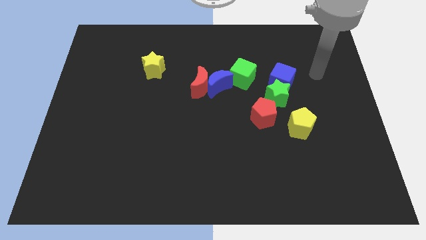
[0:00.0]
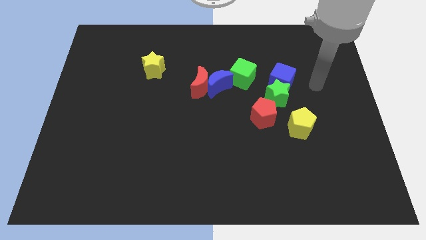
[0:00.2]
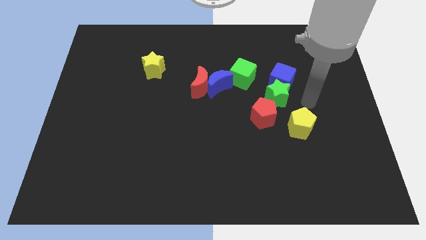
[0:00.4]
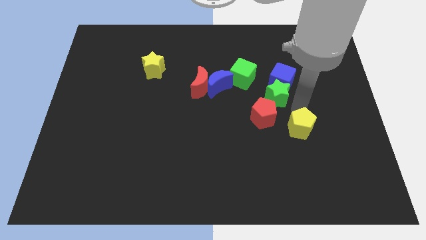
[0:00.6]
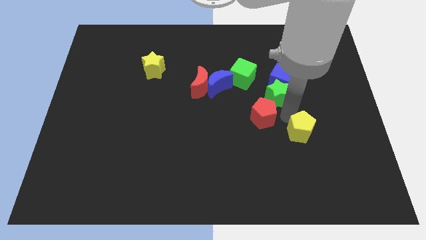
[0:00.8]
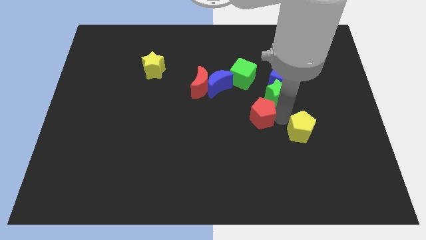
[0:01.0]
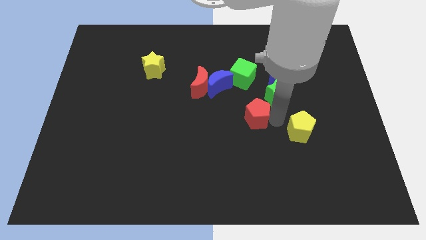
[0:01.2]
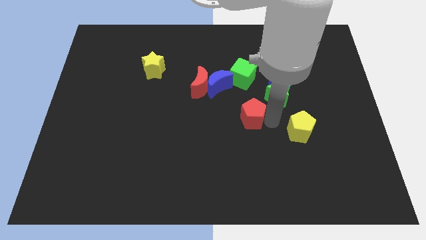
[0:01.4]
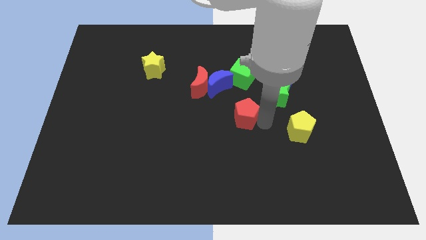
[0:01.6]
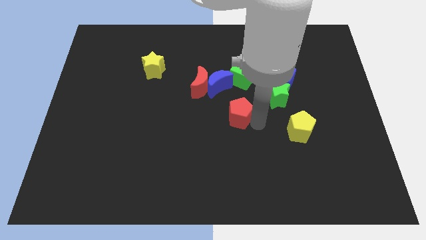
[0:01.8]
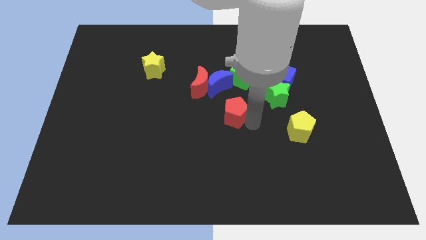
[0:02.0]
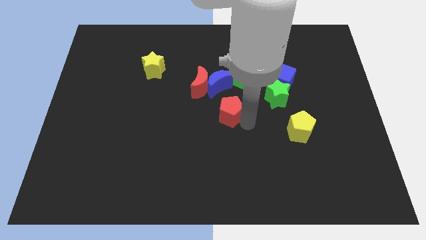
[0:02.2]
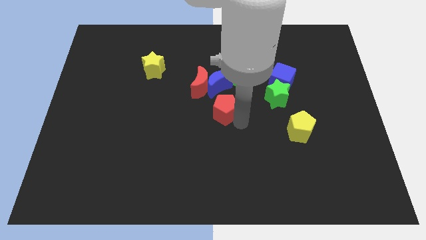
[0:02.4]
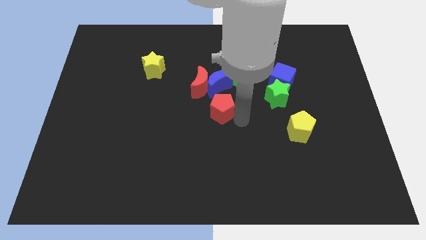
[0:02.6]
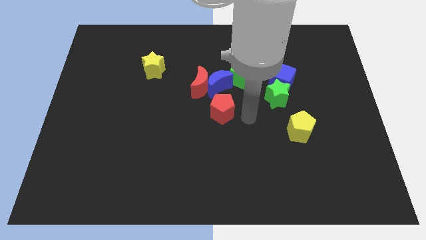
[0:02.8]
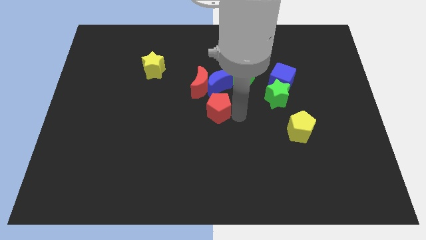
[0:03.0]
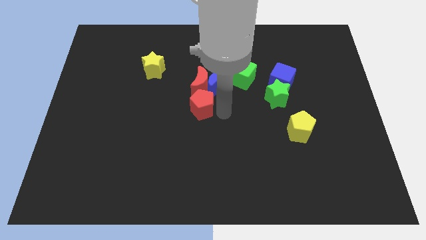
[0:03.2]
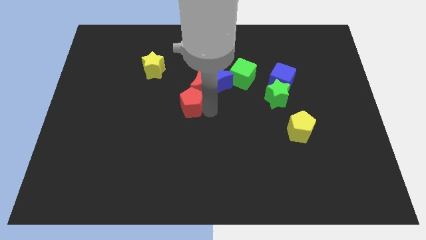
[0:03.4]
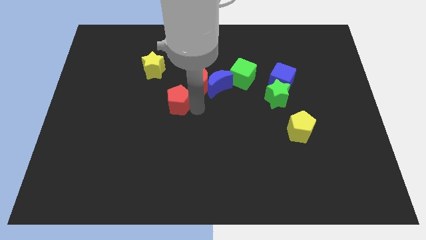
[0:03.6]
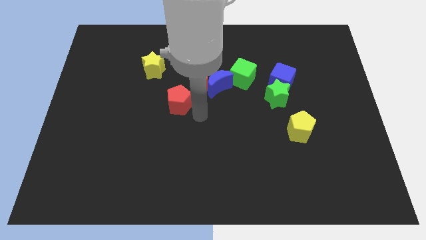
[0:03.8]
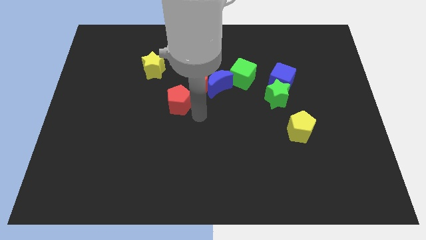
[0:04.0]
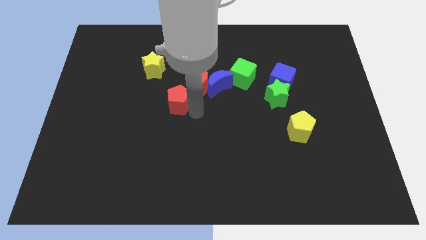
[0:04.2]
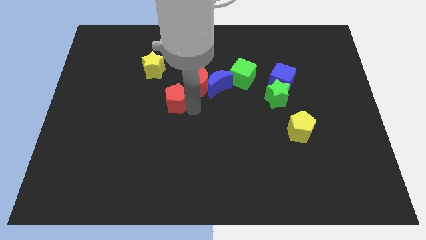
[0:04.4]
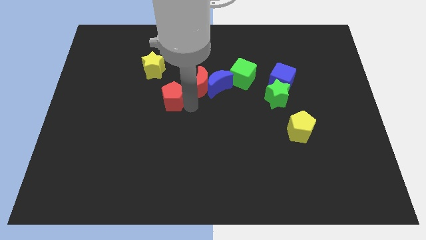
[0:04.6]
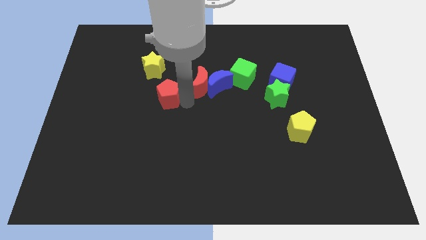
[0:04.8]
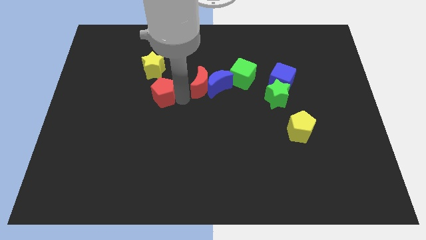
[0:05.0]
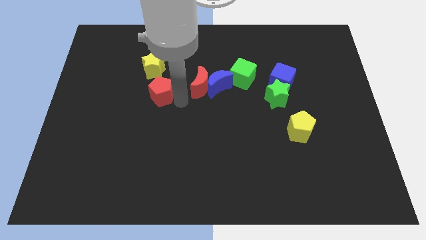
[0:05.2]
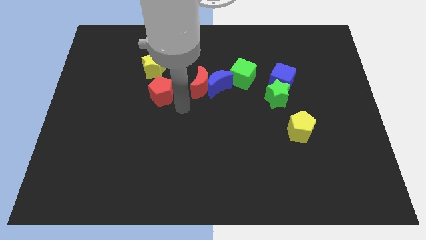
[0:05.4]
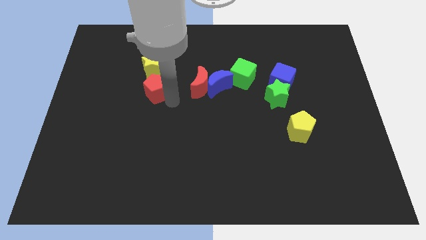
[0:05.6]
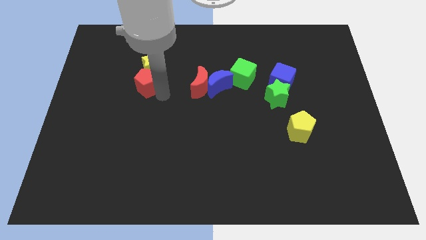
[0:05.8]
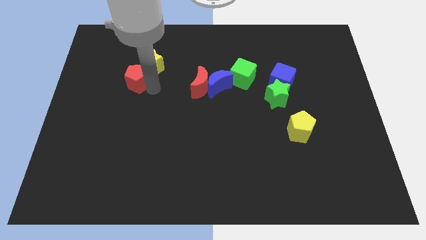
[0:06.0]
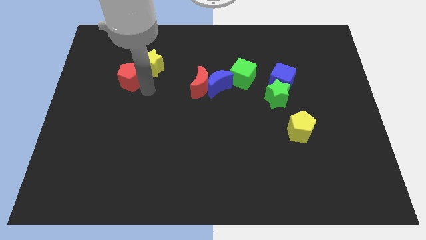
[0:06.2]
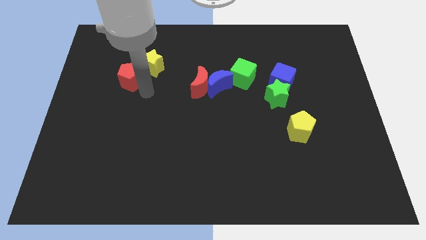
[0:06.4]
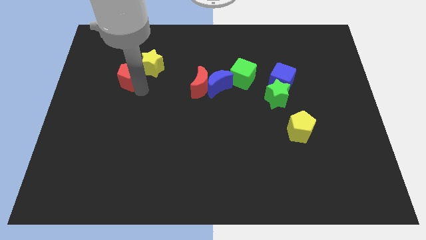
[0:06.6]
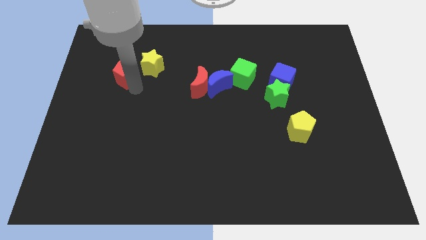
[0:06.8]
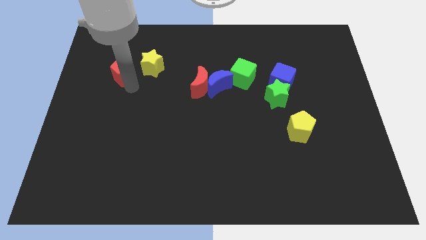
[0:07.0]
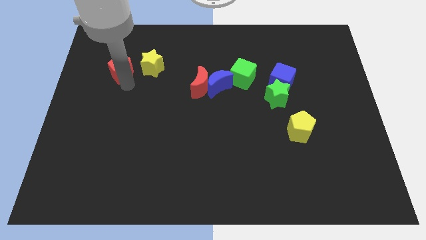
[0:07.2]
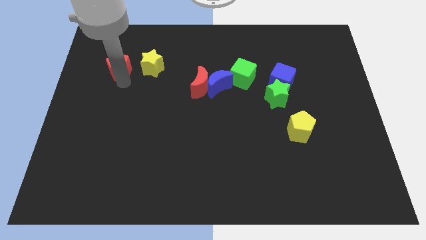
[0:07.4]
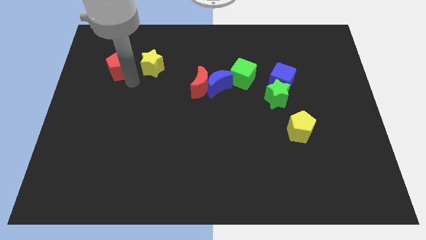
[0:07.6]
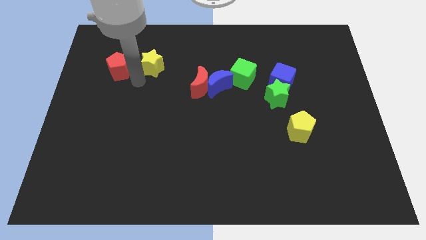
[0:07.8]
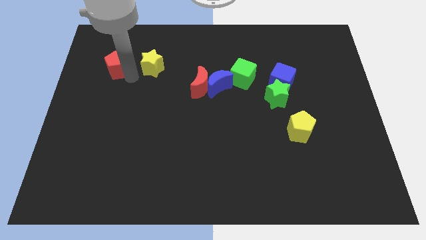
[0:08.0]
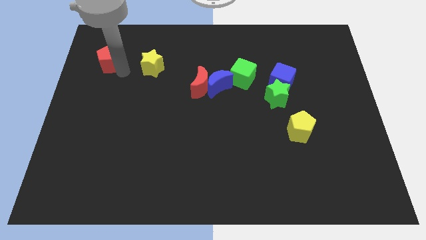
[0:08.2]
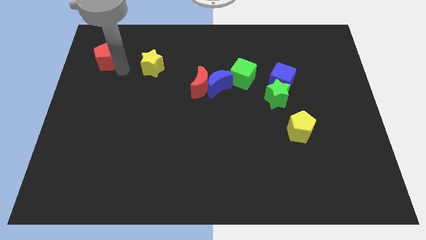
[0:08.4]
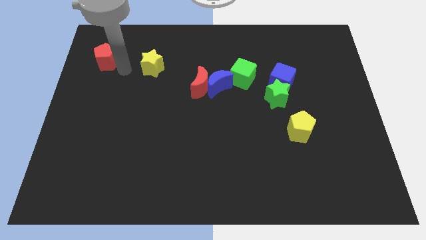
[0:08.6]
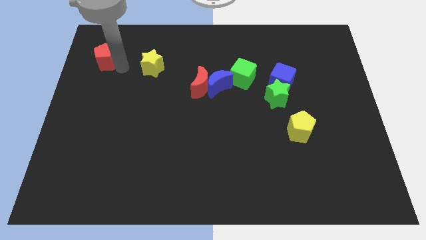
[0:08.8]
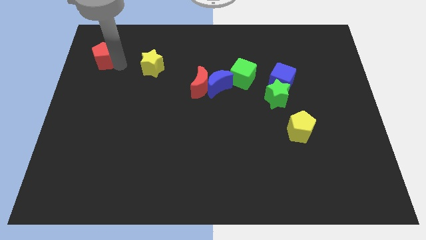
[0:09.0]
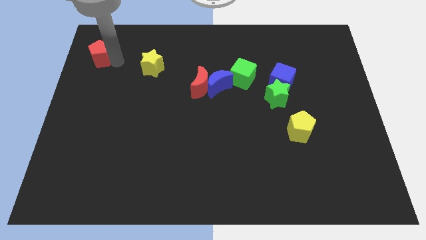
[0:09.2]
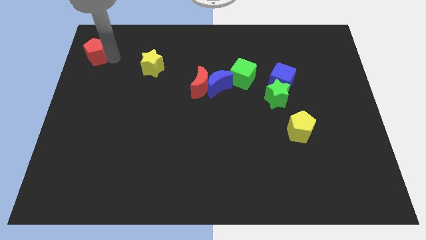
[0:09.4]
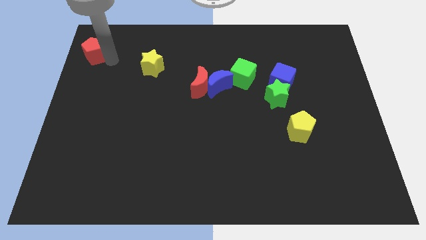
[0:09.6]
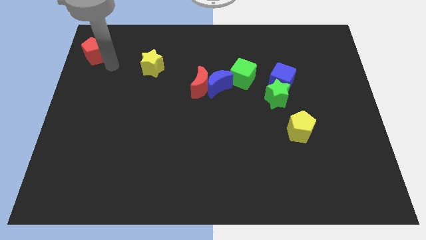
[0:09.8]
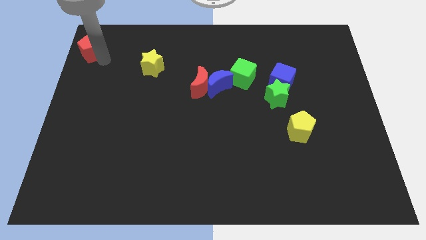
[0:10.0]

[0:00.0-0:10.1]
put the red pentagon to the top left

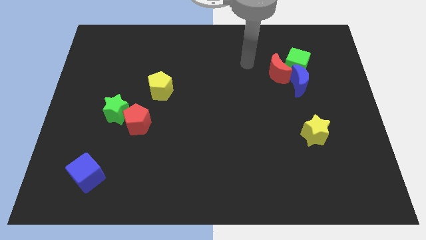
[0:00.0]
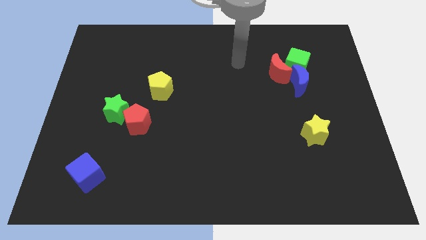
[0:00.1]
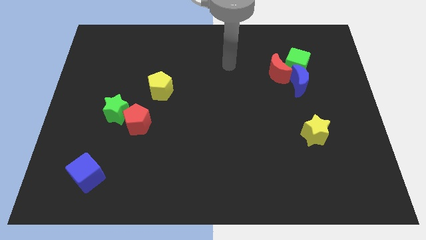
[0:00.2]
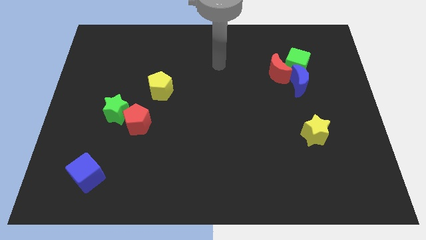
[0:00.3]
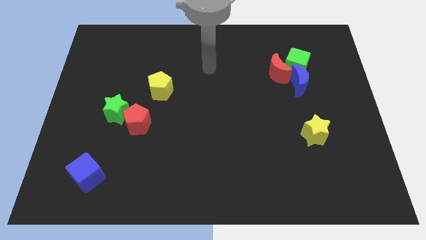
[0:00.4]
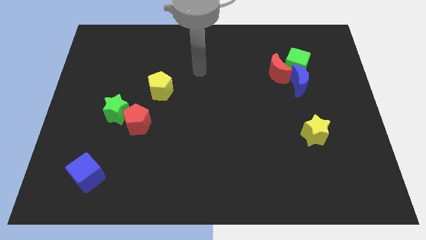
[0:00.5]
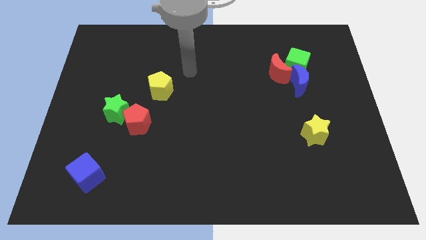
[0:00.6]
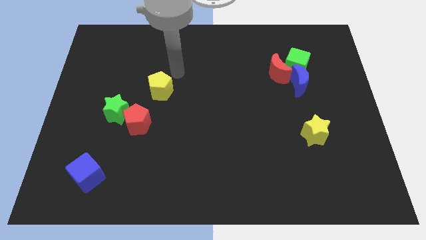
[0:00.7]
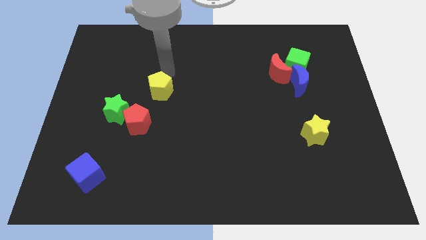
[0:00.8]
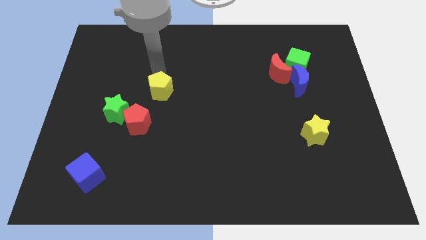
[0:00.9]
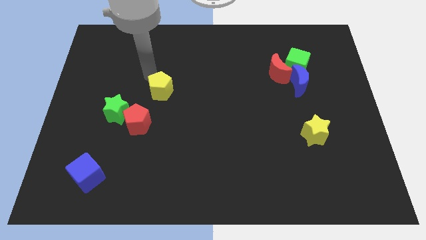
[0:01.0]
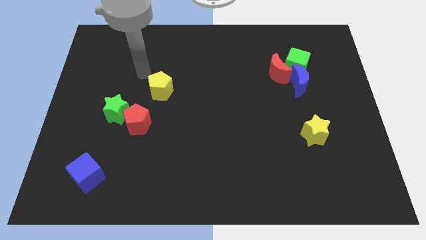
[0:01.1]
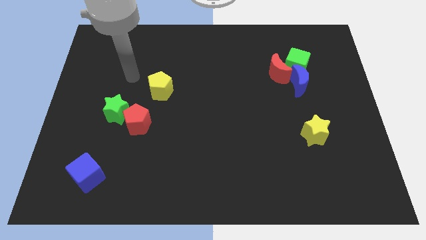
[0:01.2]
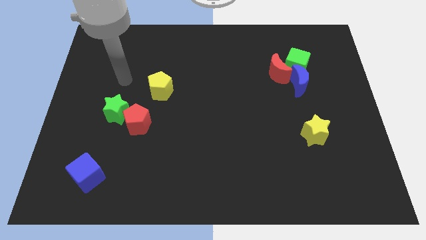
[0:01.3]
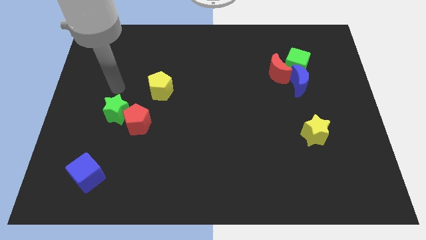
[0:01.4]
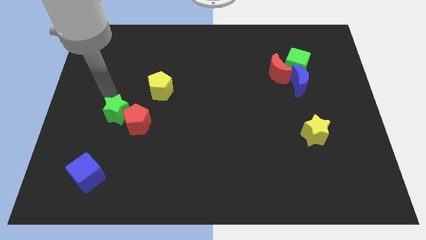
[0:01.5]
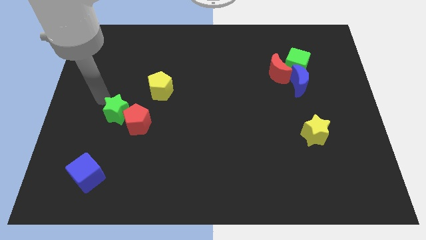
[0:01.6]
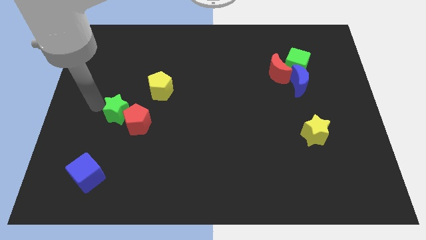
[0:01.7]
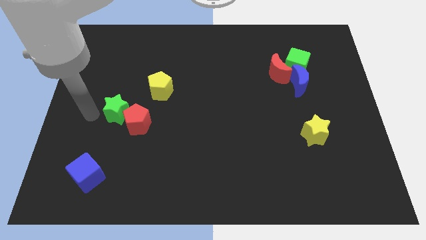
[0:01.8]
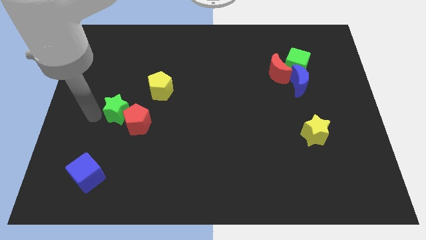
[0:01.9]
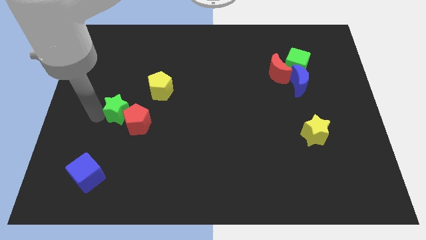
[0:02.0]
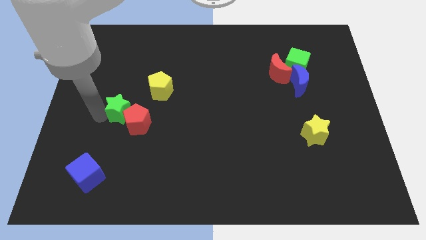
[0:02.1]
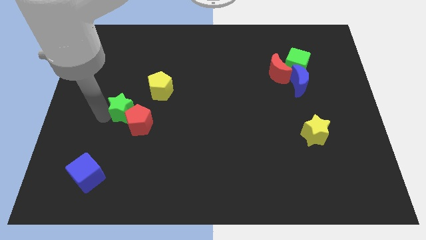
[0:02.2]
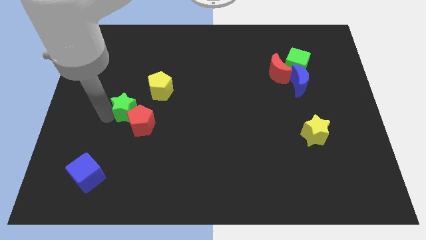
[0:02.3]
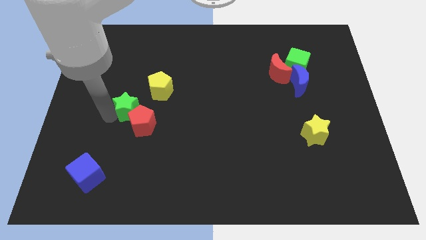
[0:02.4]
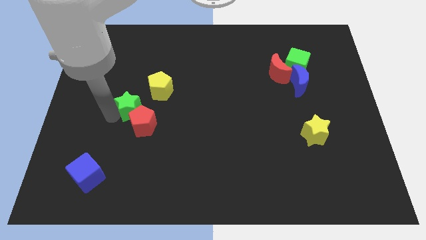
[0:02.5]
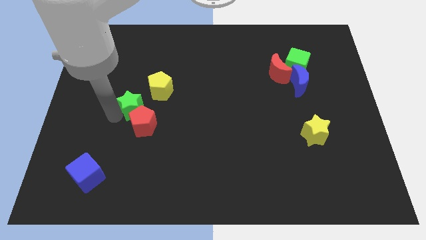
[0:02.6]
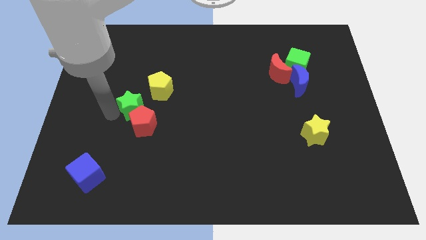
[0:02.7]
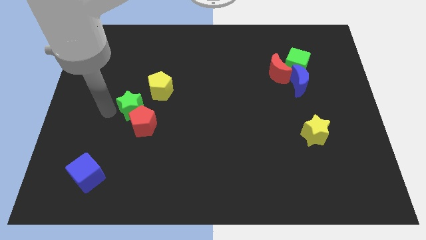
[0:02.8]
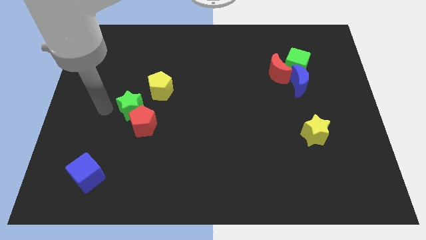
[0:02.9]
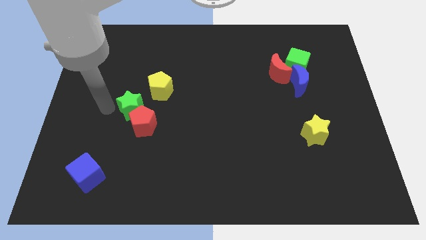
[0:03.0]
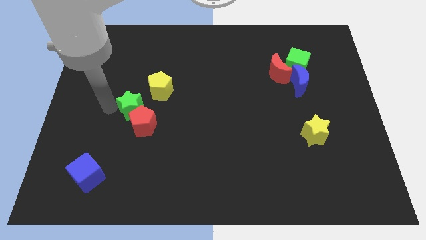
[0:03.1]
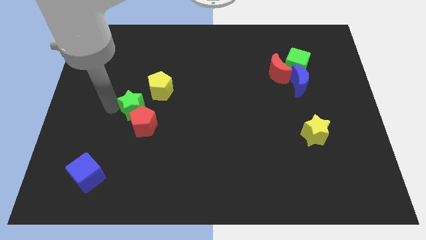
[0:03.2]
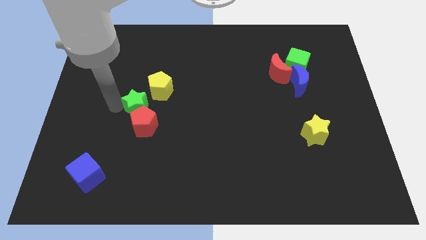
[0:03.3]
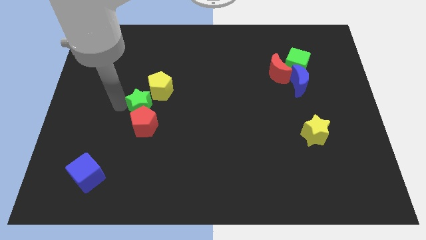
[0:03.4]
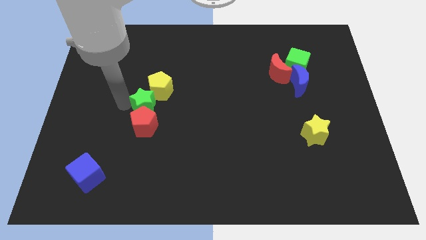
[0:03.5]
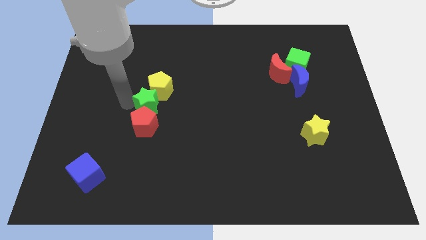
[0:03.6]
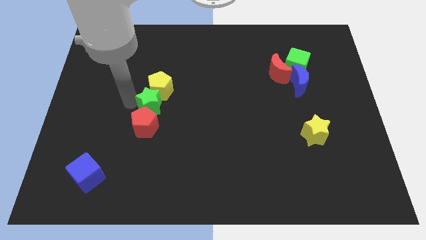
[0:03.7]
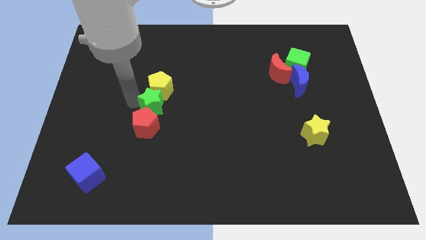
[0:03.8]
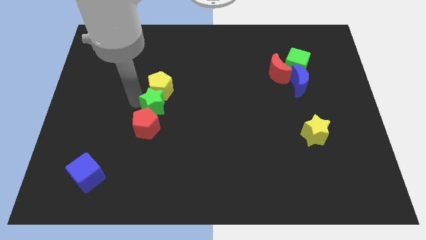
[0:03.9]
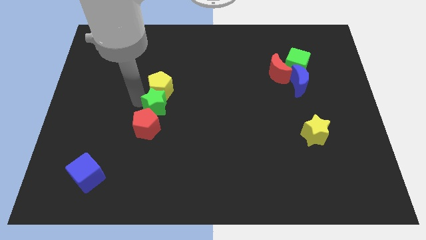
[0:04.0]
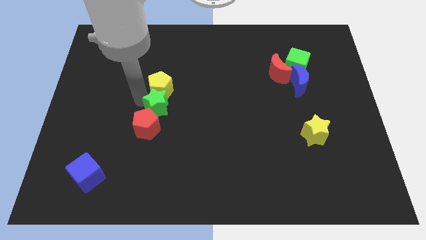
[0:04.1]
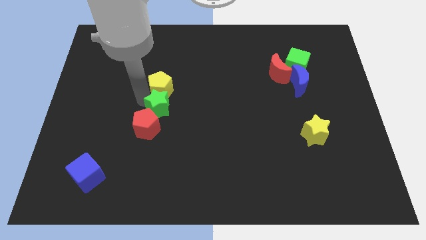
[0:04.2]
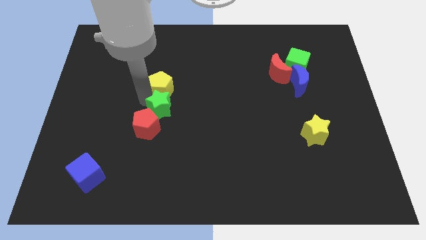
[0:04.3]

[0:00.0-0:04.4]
push the green star to the middle of the board
